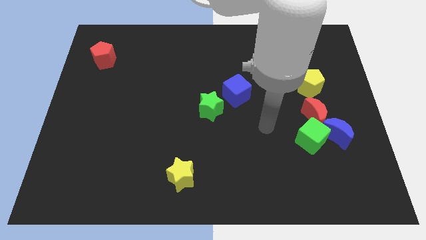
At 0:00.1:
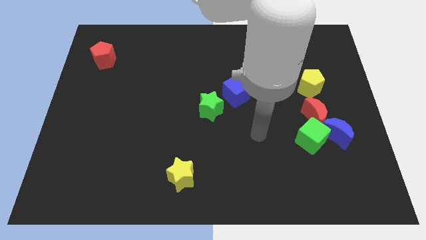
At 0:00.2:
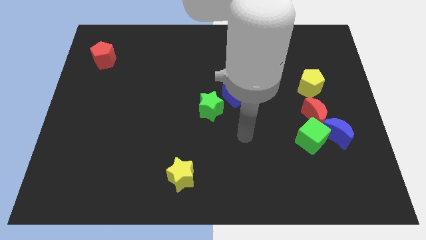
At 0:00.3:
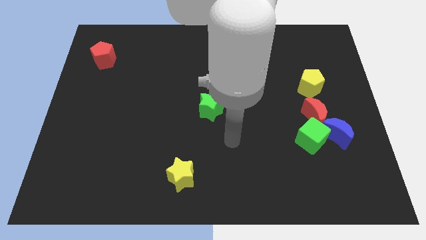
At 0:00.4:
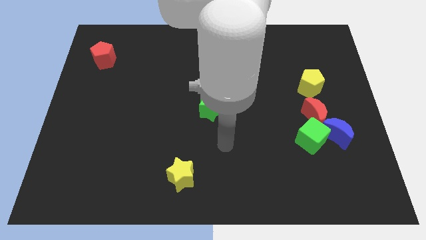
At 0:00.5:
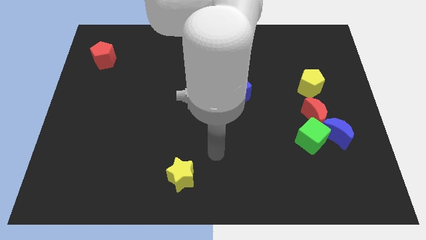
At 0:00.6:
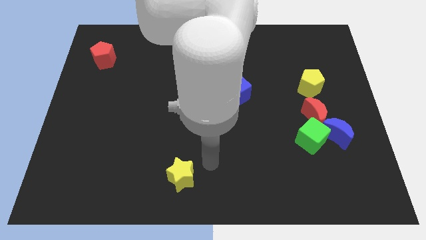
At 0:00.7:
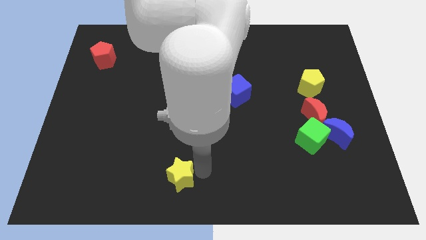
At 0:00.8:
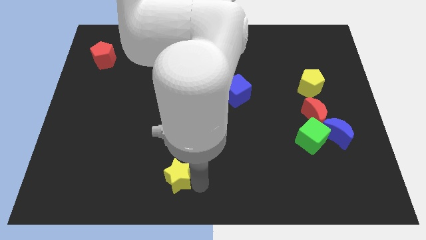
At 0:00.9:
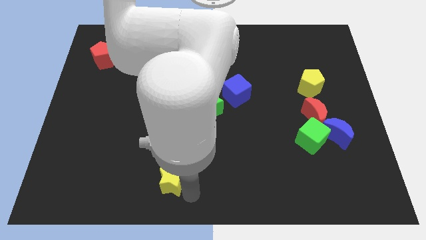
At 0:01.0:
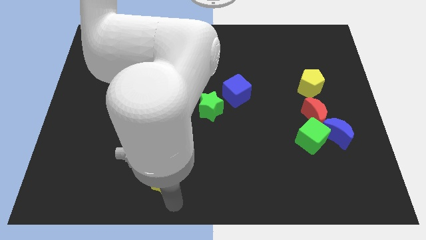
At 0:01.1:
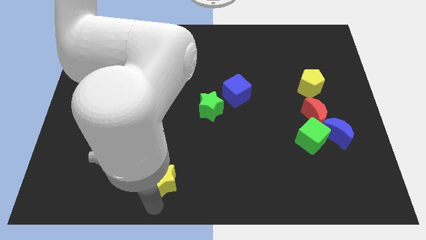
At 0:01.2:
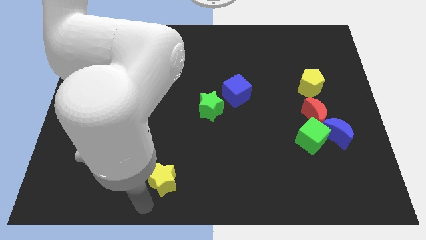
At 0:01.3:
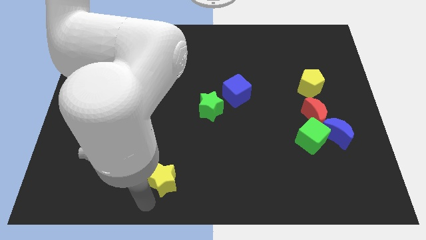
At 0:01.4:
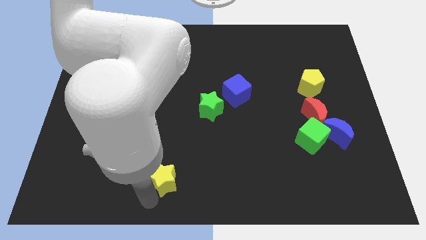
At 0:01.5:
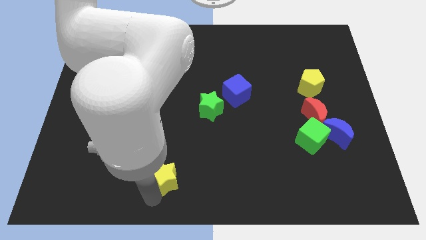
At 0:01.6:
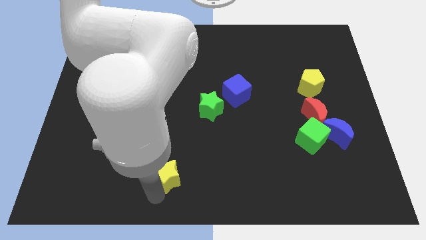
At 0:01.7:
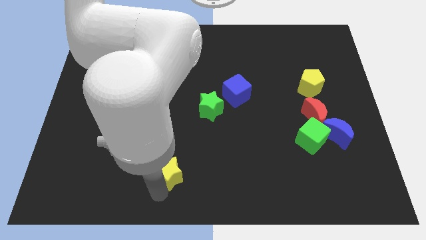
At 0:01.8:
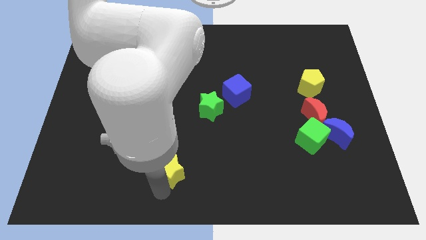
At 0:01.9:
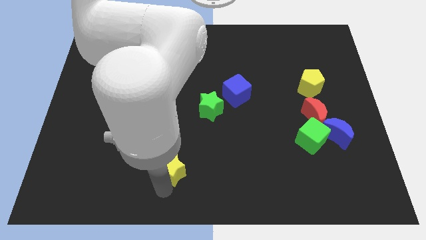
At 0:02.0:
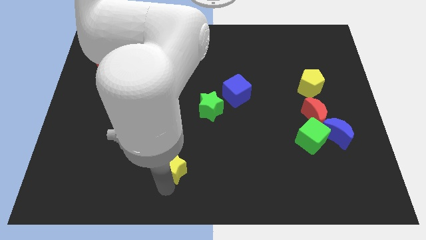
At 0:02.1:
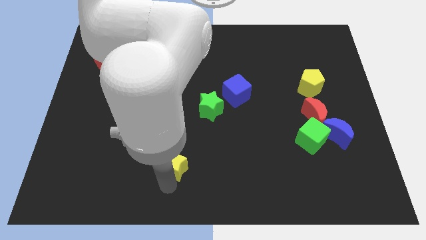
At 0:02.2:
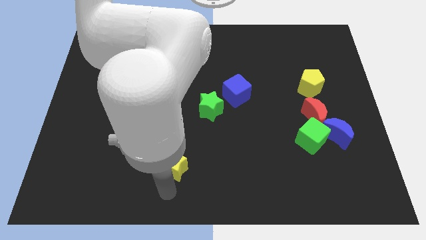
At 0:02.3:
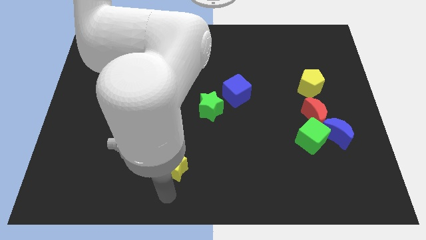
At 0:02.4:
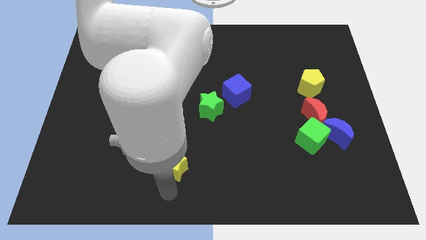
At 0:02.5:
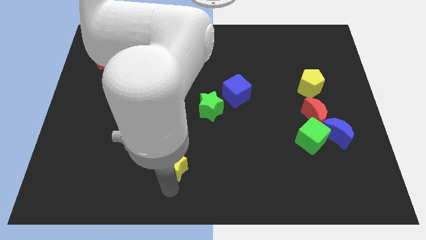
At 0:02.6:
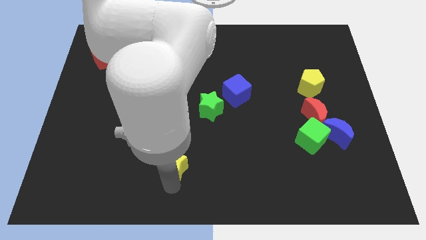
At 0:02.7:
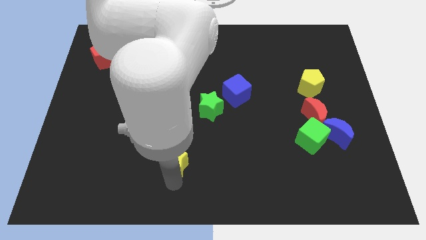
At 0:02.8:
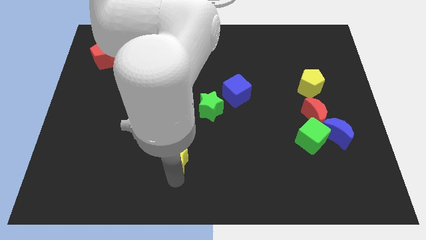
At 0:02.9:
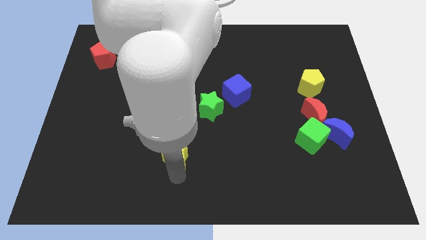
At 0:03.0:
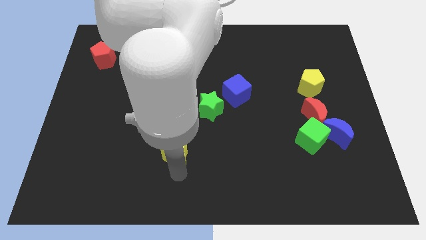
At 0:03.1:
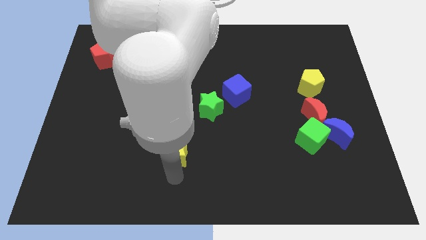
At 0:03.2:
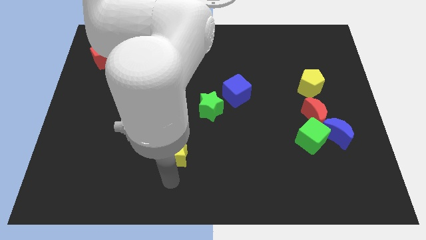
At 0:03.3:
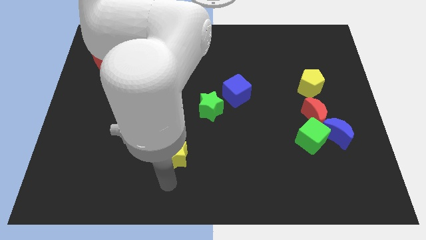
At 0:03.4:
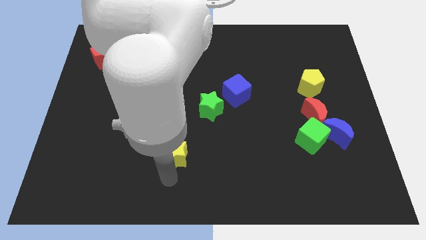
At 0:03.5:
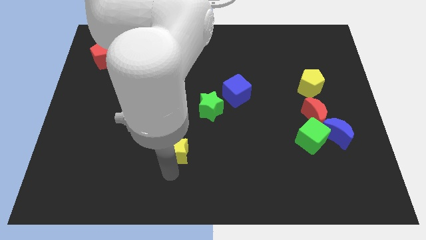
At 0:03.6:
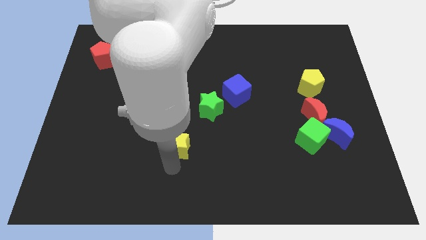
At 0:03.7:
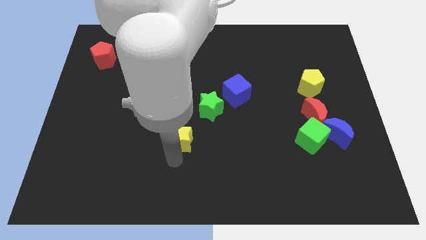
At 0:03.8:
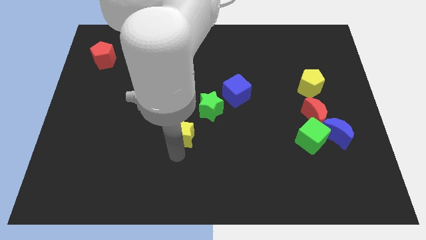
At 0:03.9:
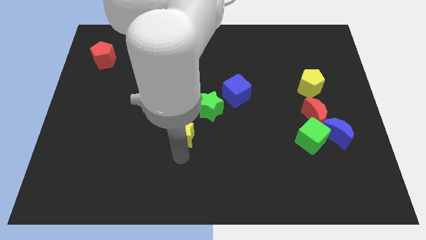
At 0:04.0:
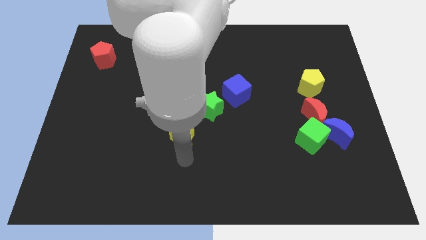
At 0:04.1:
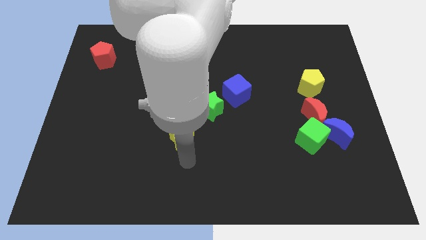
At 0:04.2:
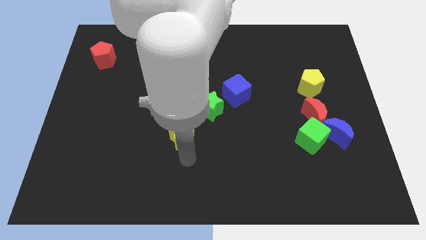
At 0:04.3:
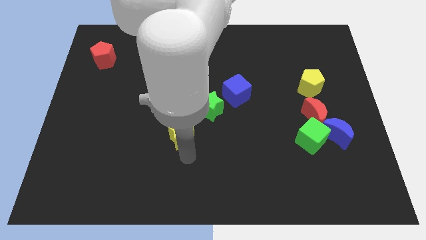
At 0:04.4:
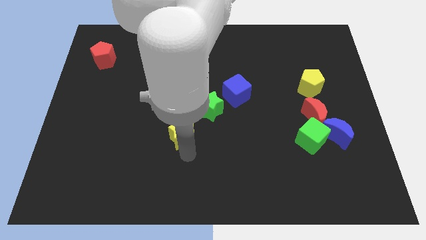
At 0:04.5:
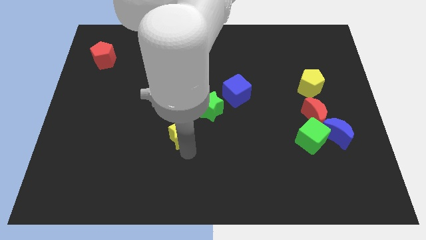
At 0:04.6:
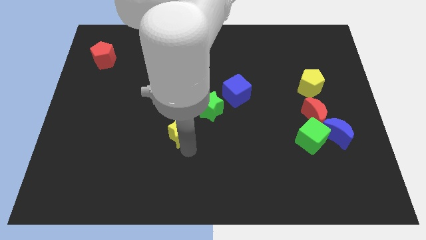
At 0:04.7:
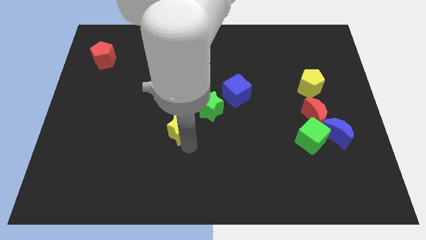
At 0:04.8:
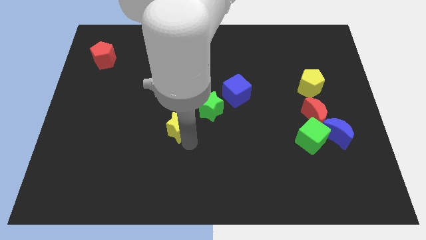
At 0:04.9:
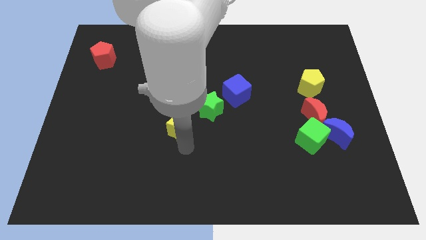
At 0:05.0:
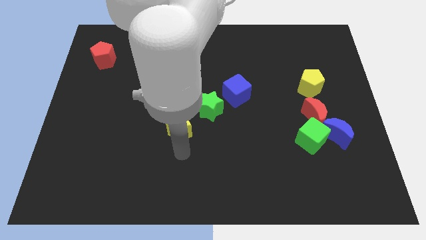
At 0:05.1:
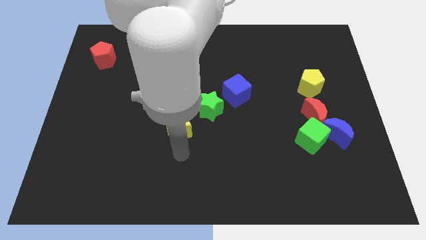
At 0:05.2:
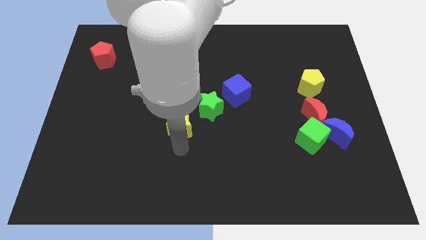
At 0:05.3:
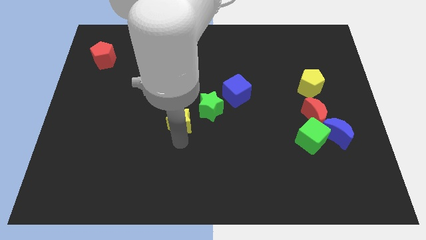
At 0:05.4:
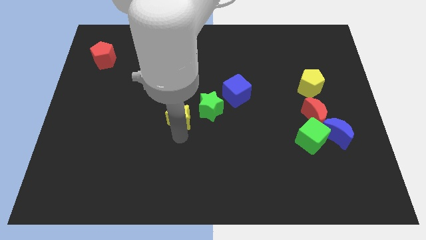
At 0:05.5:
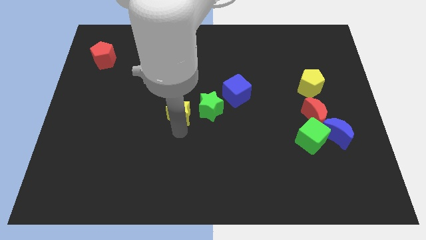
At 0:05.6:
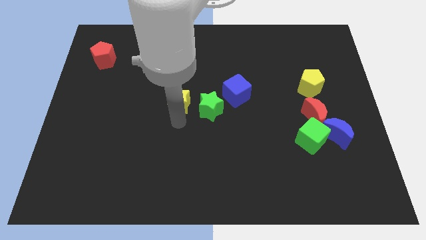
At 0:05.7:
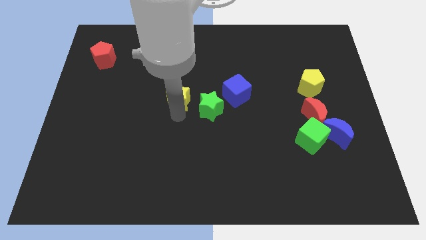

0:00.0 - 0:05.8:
push the yellow star upwards

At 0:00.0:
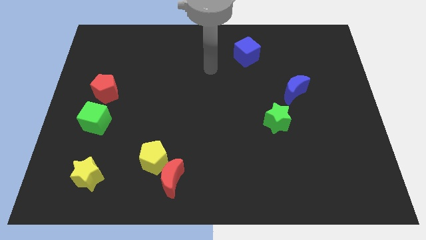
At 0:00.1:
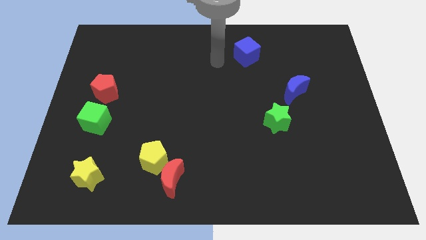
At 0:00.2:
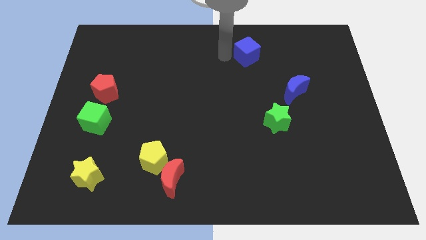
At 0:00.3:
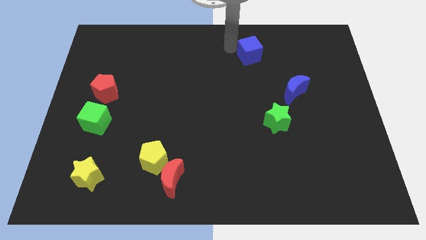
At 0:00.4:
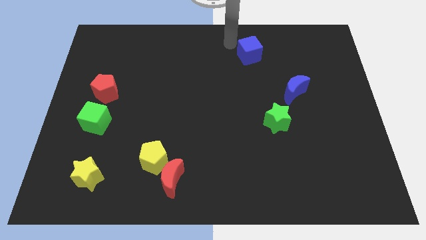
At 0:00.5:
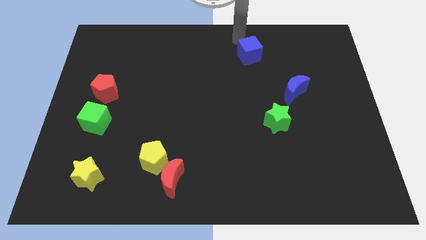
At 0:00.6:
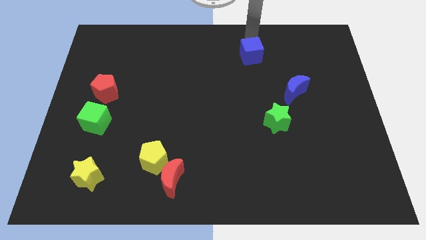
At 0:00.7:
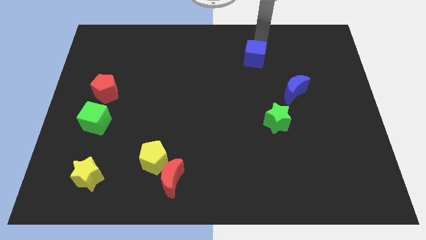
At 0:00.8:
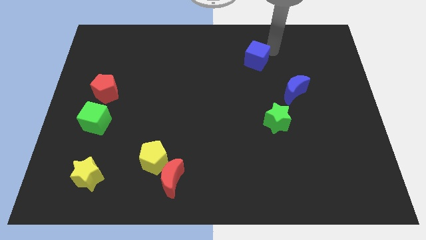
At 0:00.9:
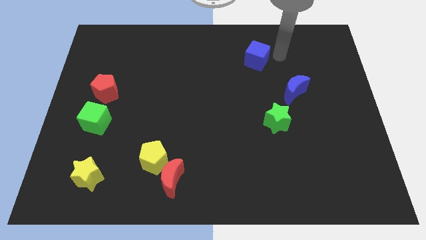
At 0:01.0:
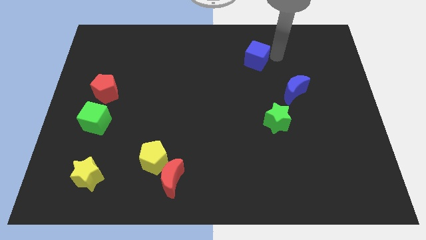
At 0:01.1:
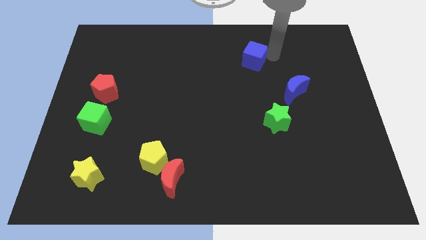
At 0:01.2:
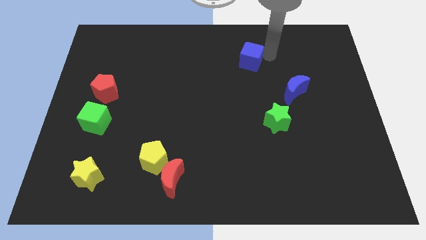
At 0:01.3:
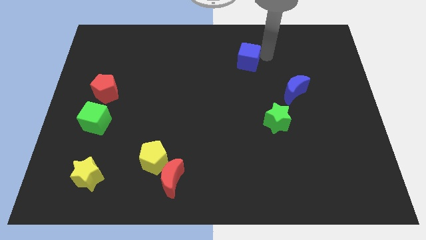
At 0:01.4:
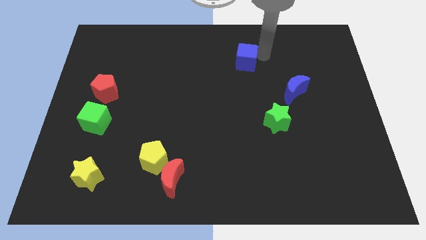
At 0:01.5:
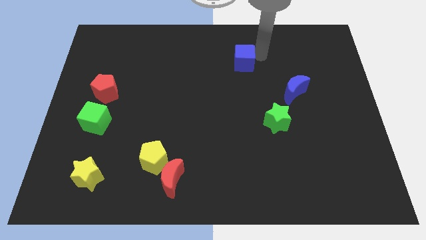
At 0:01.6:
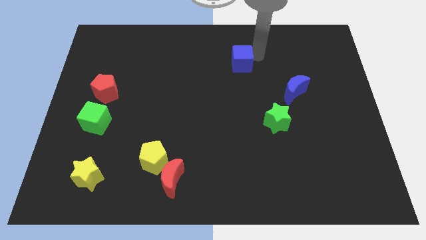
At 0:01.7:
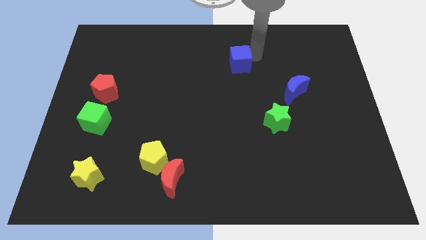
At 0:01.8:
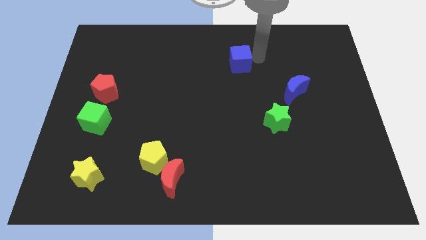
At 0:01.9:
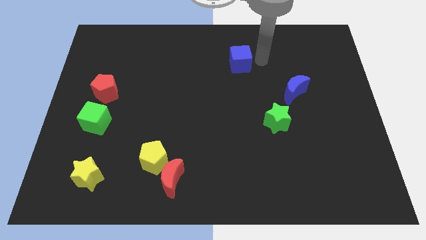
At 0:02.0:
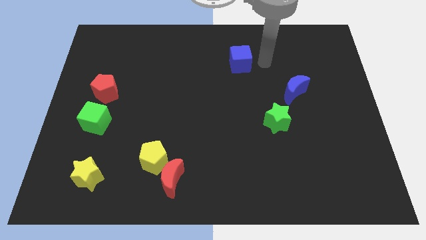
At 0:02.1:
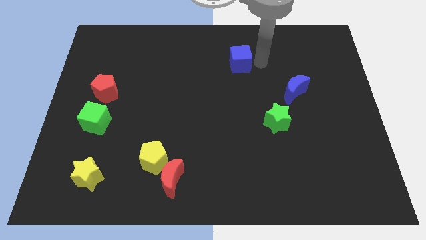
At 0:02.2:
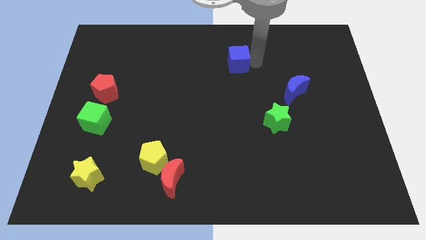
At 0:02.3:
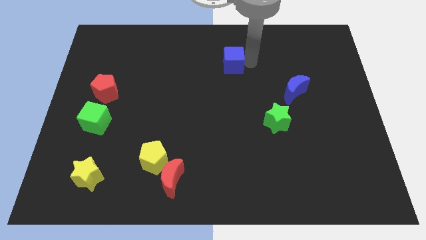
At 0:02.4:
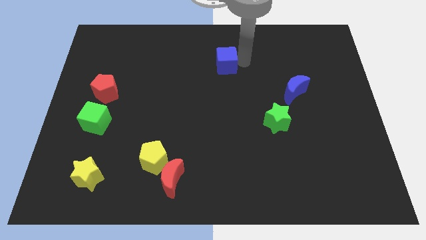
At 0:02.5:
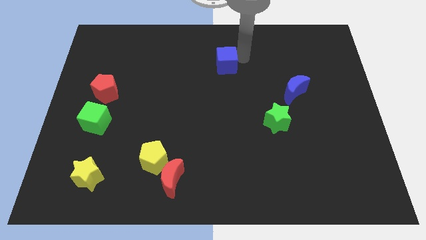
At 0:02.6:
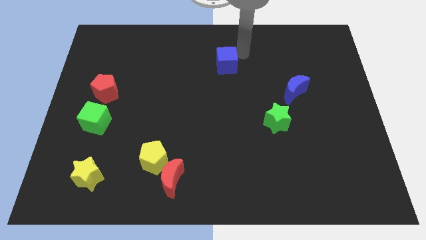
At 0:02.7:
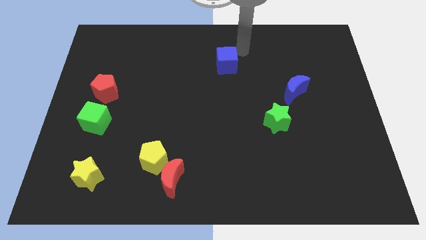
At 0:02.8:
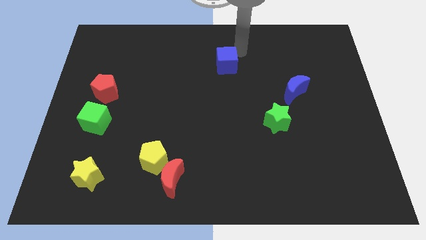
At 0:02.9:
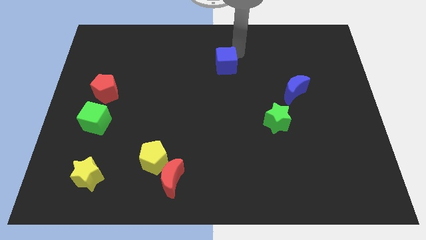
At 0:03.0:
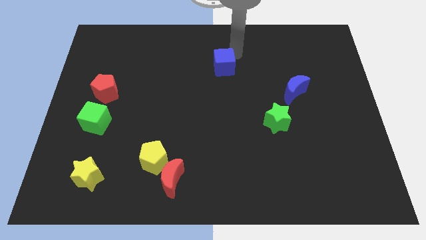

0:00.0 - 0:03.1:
slide the blue cube down and to the left somewhat
